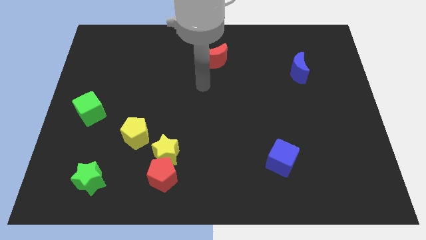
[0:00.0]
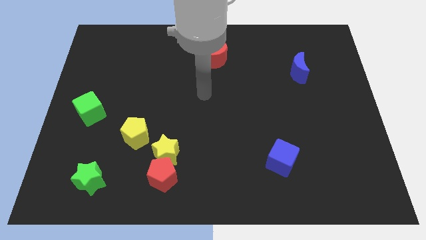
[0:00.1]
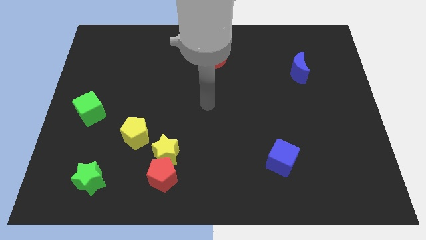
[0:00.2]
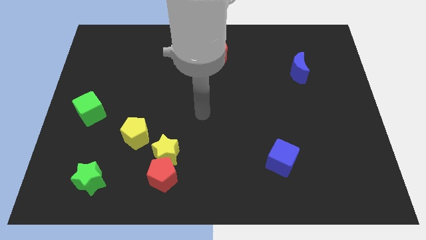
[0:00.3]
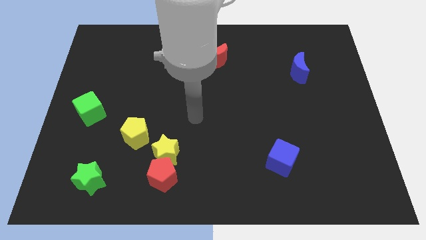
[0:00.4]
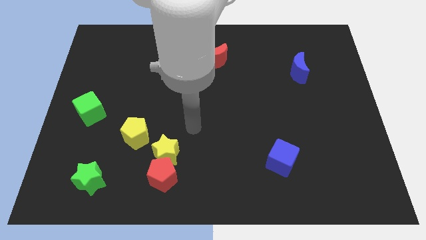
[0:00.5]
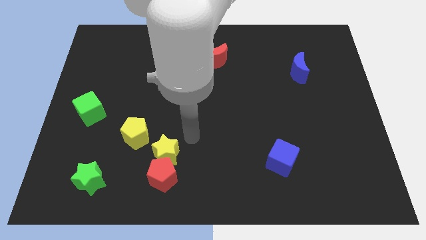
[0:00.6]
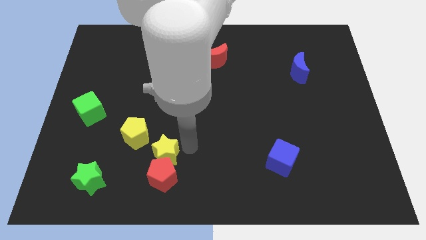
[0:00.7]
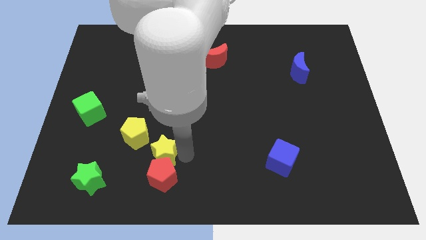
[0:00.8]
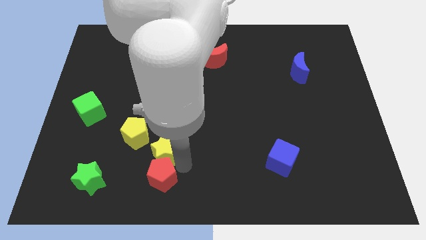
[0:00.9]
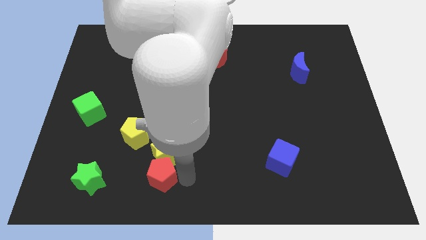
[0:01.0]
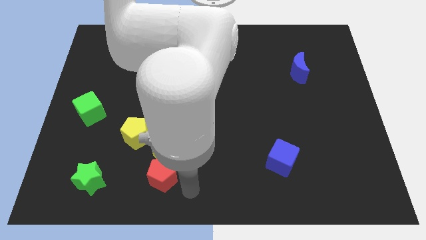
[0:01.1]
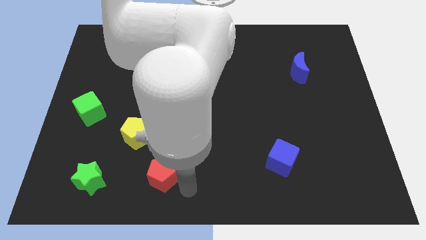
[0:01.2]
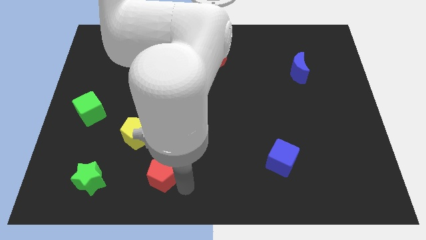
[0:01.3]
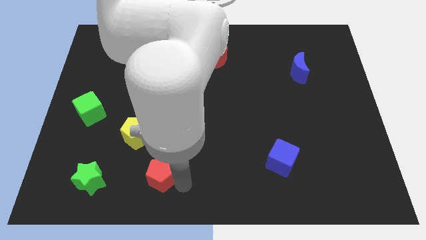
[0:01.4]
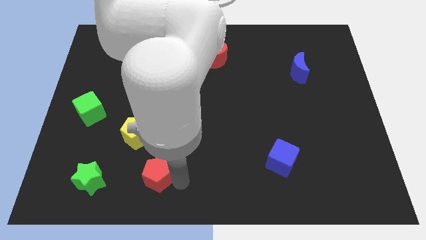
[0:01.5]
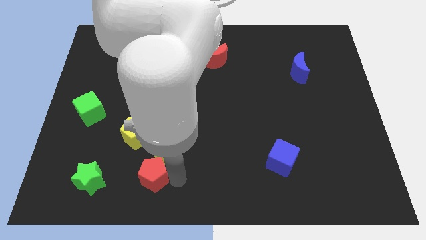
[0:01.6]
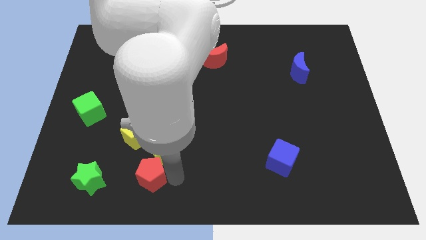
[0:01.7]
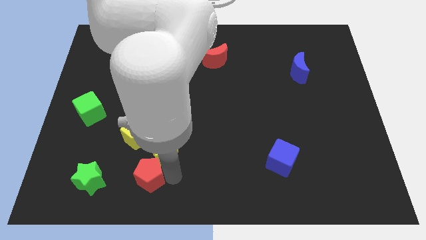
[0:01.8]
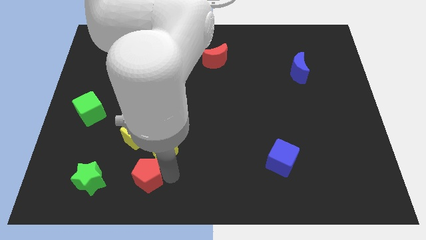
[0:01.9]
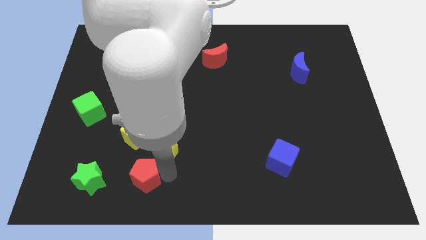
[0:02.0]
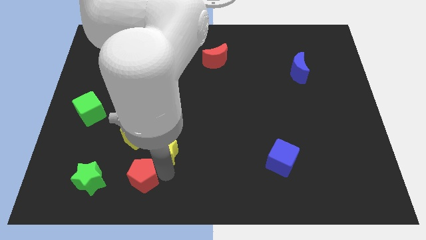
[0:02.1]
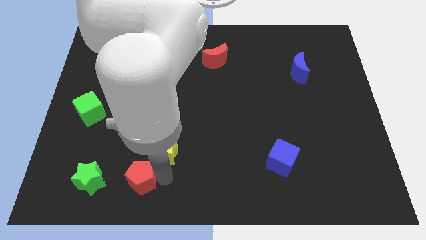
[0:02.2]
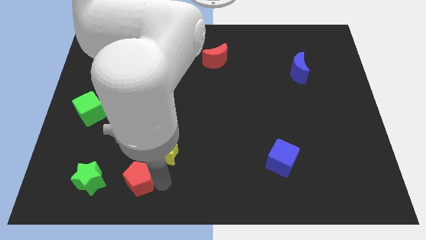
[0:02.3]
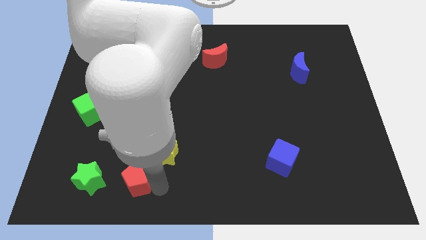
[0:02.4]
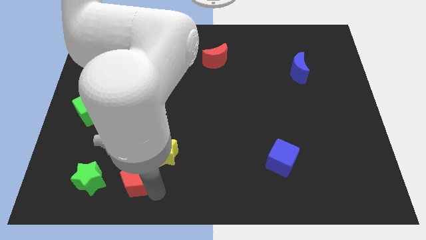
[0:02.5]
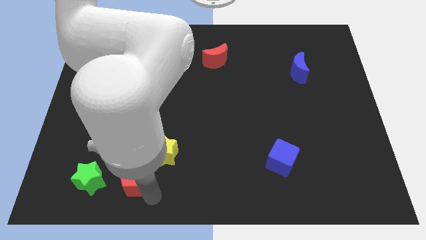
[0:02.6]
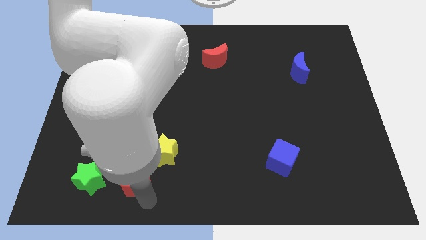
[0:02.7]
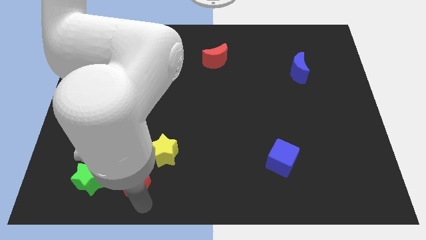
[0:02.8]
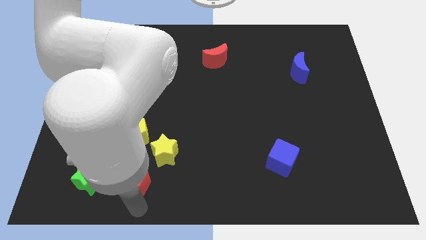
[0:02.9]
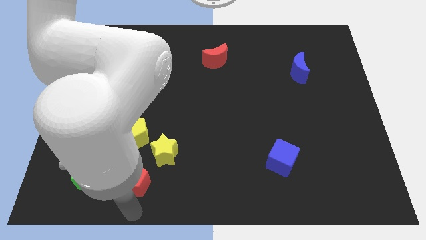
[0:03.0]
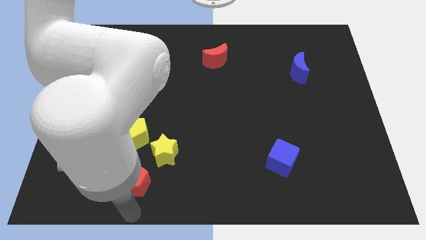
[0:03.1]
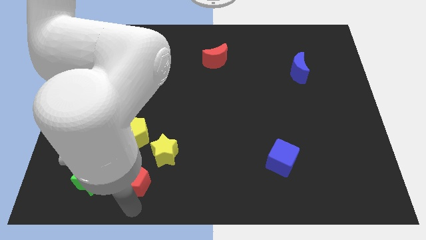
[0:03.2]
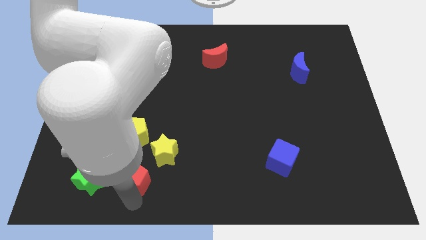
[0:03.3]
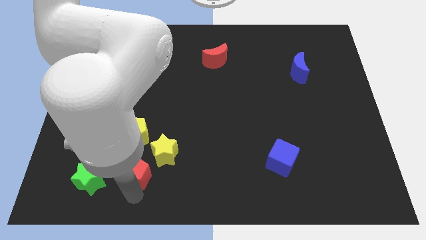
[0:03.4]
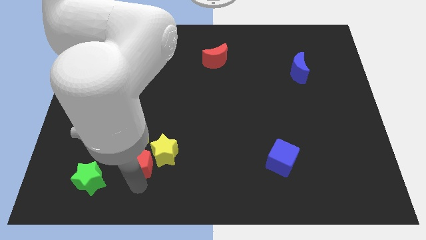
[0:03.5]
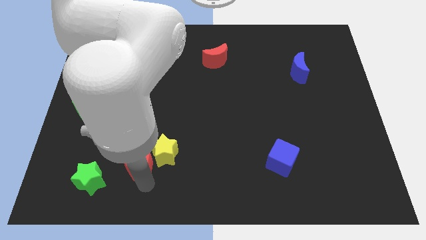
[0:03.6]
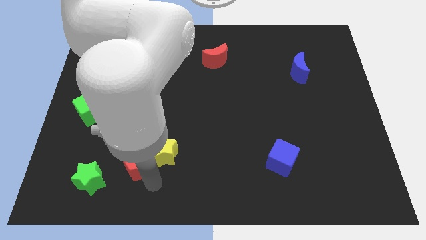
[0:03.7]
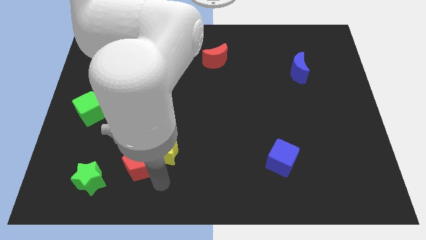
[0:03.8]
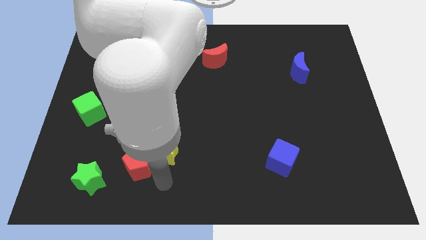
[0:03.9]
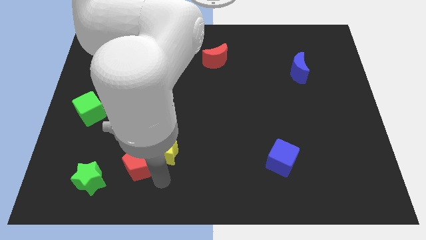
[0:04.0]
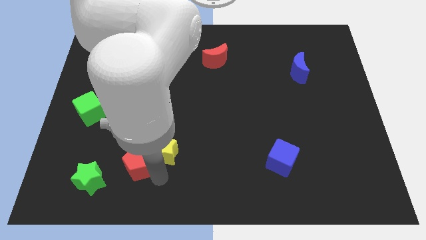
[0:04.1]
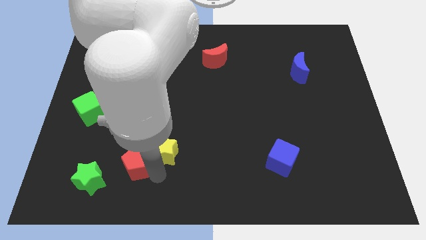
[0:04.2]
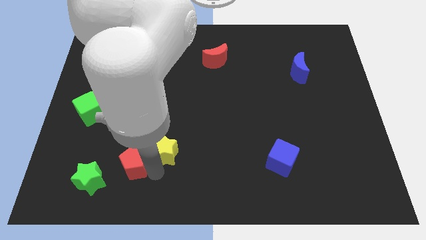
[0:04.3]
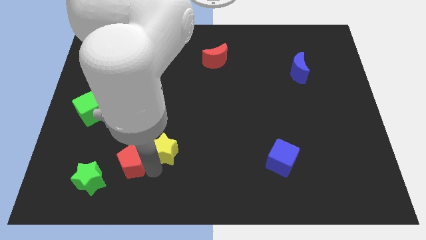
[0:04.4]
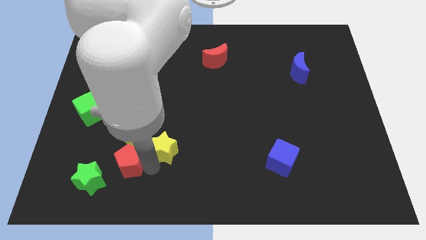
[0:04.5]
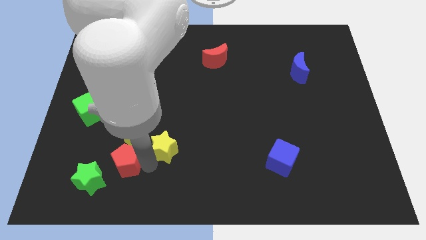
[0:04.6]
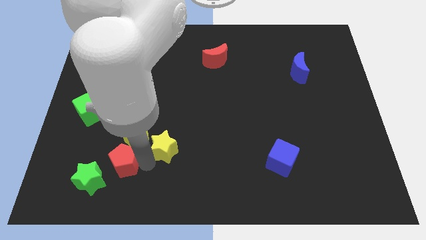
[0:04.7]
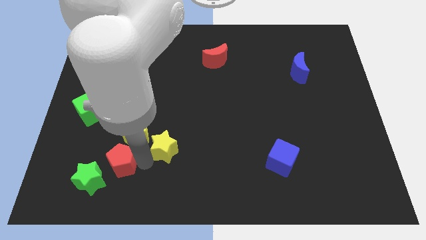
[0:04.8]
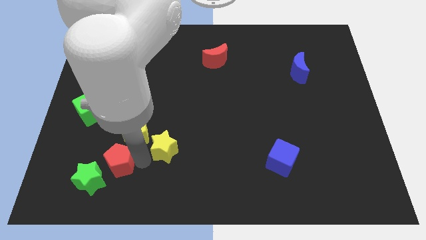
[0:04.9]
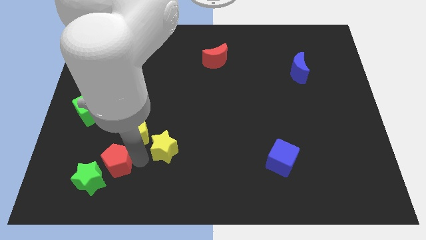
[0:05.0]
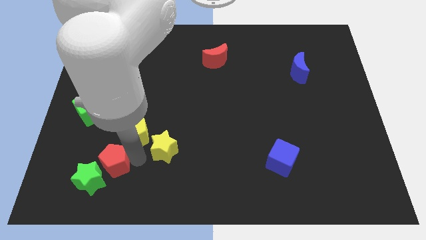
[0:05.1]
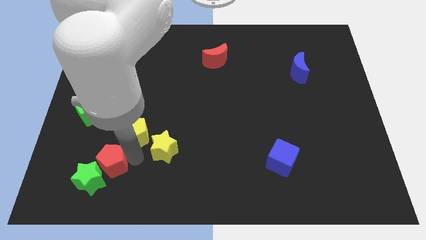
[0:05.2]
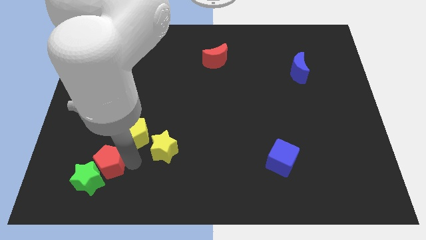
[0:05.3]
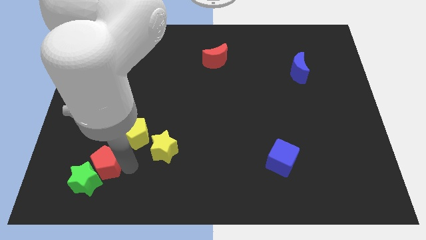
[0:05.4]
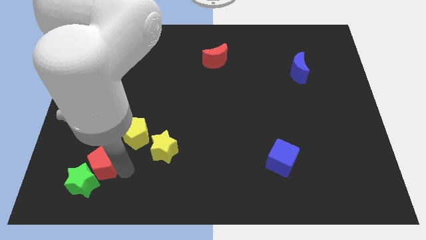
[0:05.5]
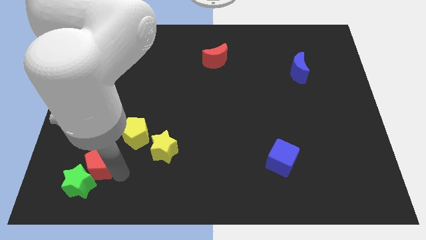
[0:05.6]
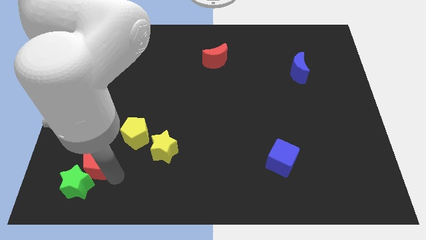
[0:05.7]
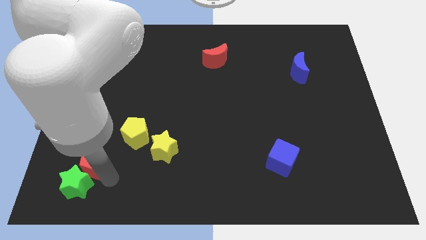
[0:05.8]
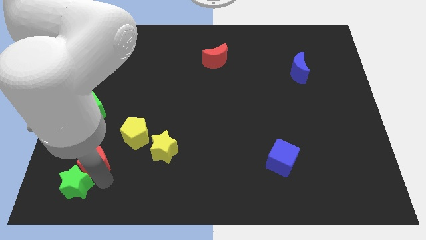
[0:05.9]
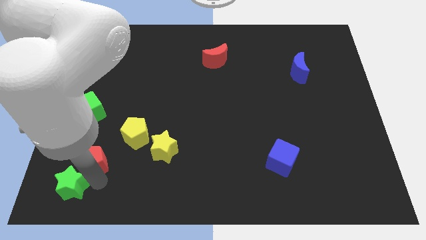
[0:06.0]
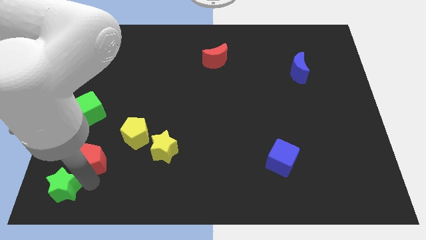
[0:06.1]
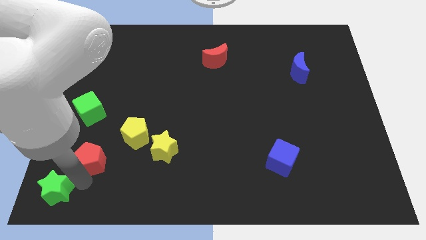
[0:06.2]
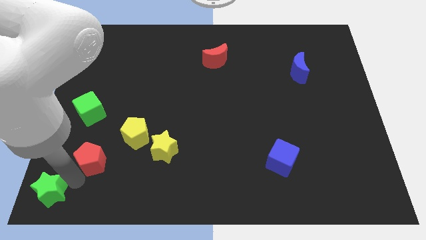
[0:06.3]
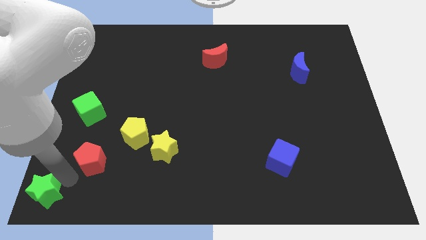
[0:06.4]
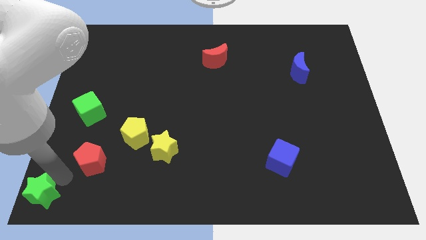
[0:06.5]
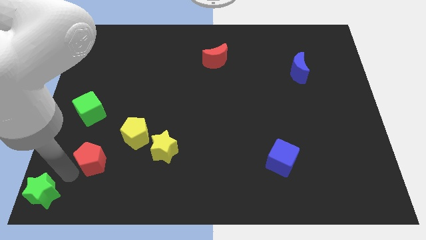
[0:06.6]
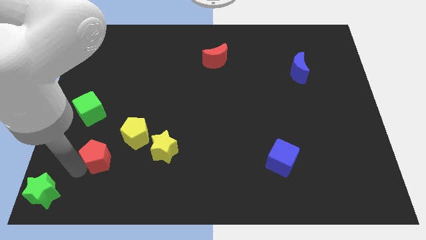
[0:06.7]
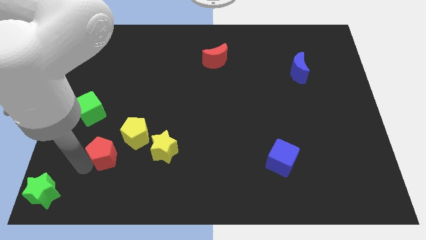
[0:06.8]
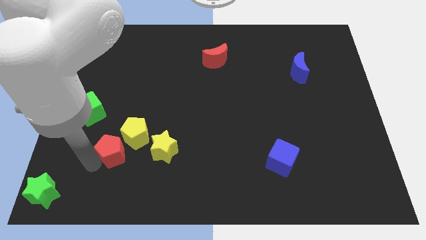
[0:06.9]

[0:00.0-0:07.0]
move the red pentagon just left of the yellow pentagon
